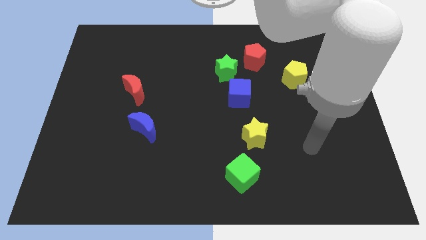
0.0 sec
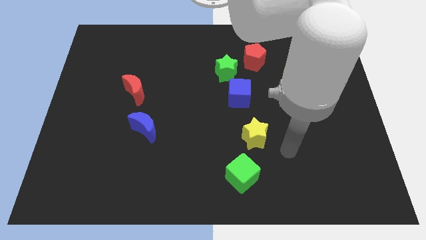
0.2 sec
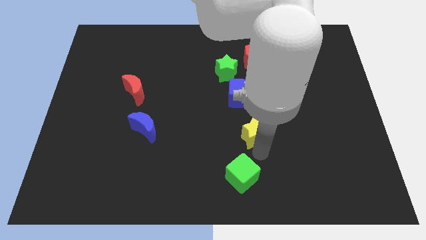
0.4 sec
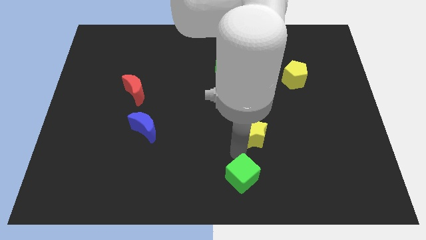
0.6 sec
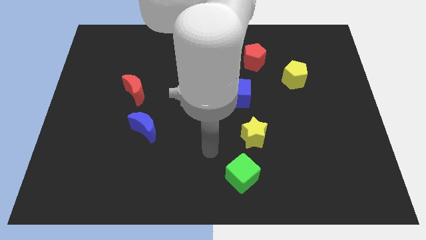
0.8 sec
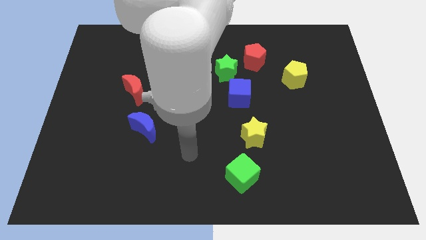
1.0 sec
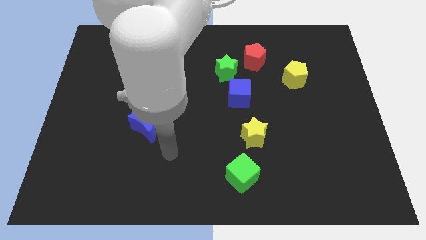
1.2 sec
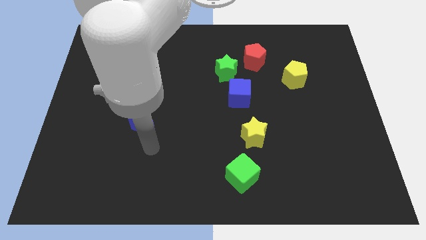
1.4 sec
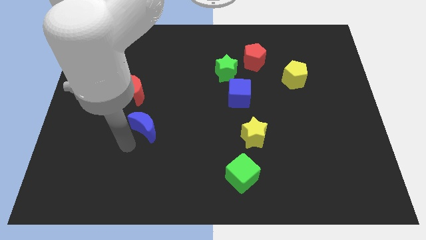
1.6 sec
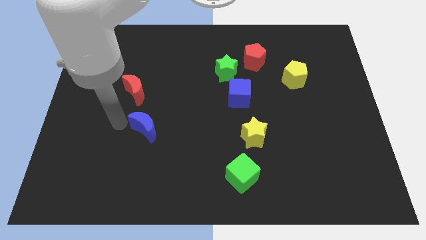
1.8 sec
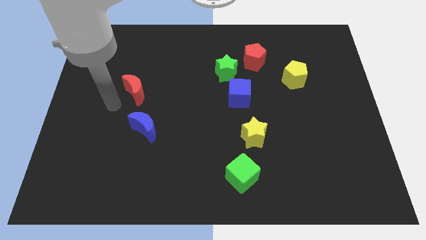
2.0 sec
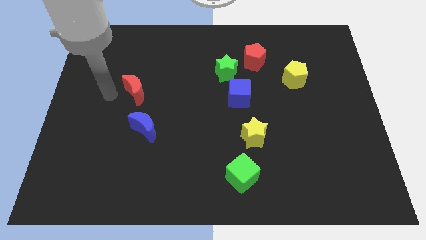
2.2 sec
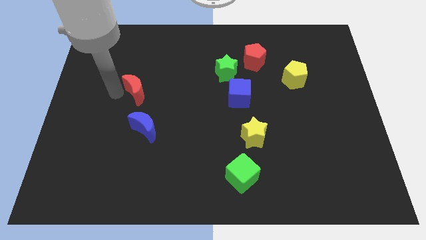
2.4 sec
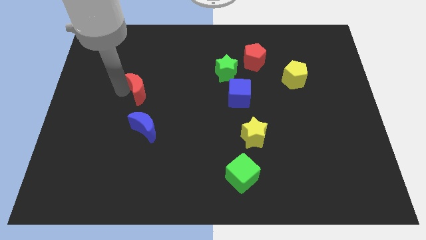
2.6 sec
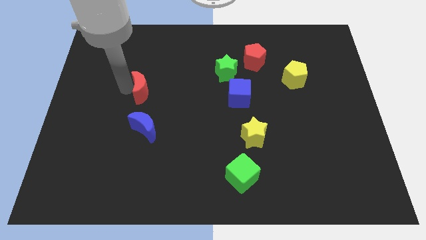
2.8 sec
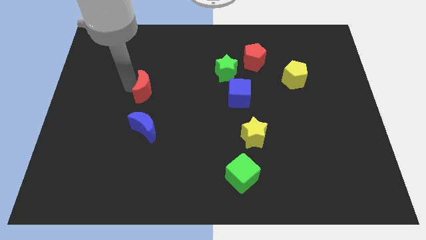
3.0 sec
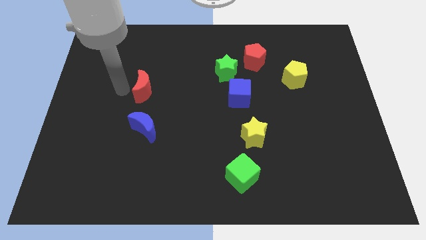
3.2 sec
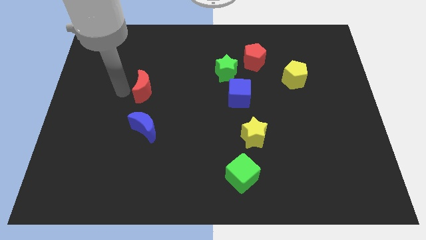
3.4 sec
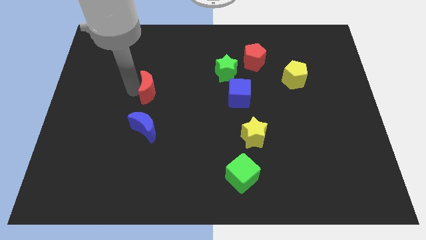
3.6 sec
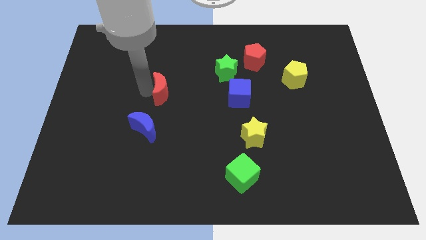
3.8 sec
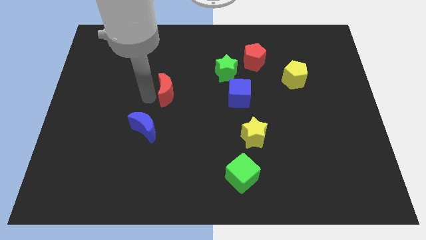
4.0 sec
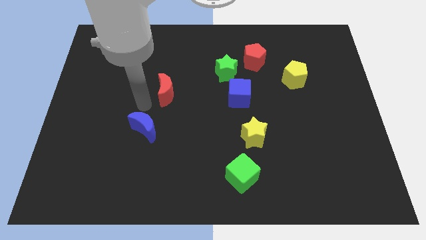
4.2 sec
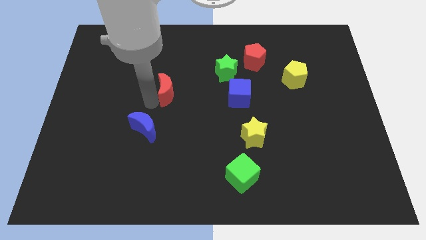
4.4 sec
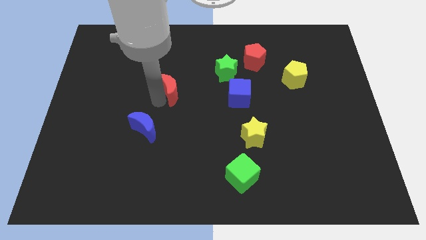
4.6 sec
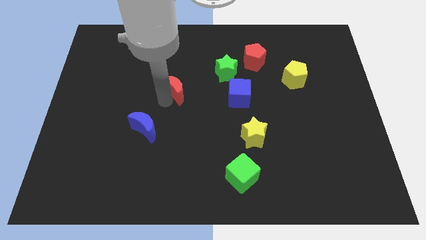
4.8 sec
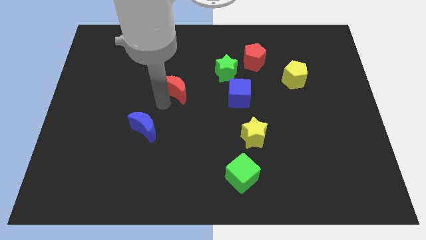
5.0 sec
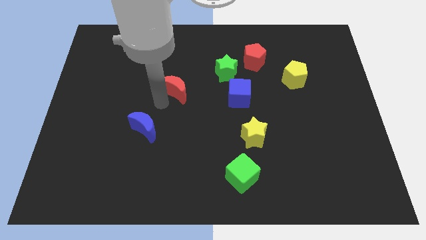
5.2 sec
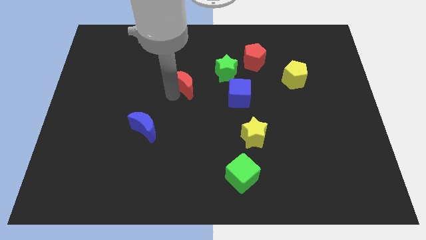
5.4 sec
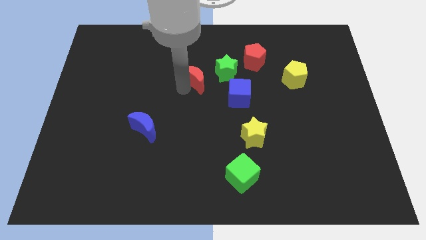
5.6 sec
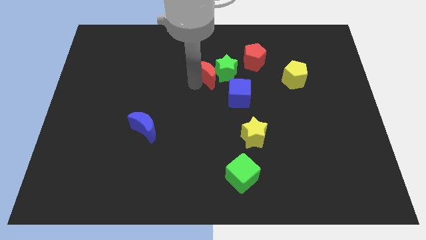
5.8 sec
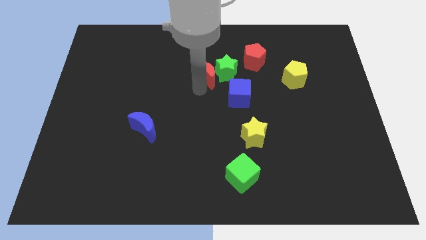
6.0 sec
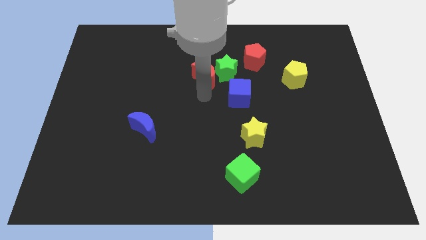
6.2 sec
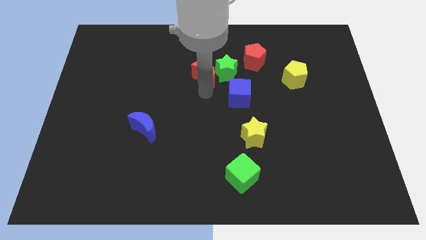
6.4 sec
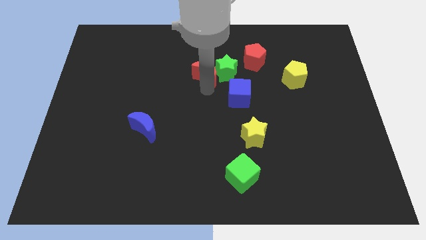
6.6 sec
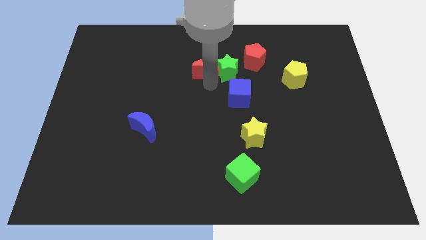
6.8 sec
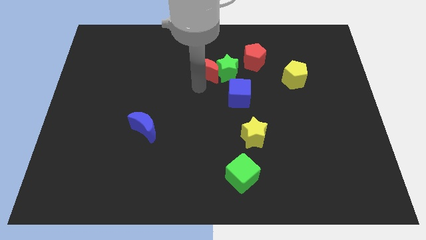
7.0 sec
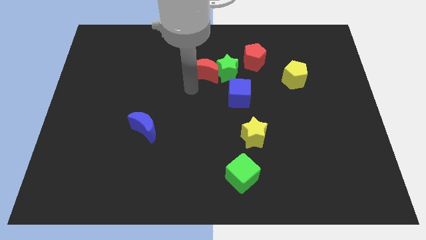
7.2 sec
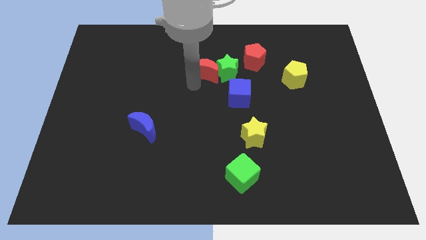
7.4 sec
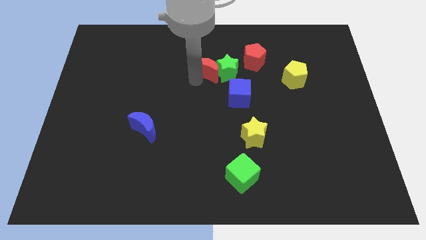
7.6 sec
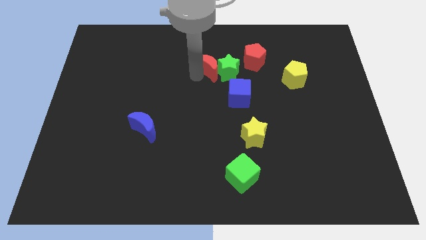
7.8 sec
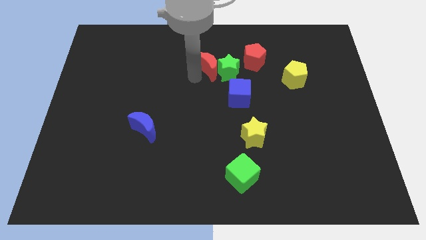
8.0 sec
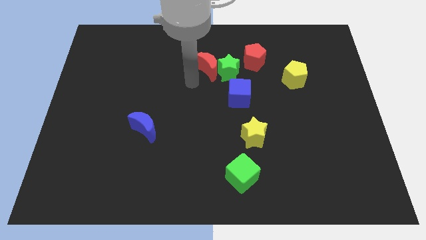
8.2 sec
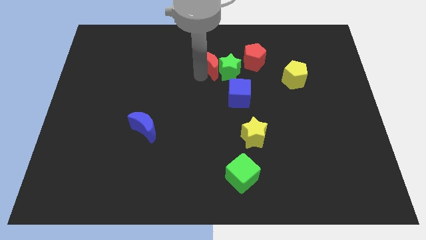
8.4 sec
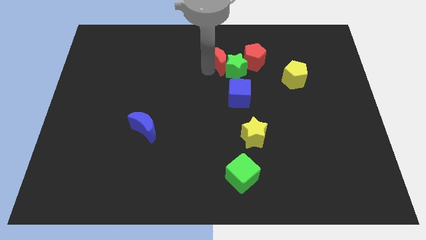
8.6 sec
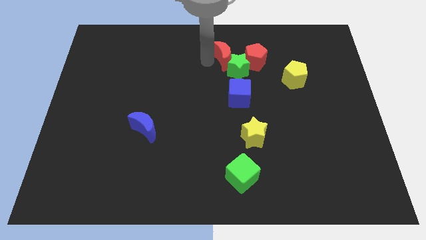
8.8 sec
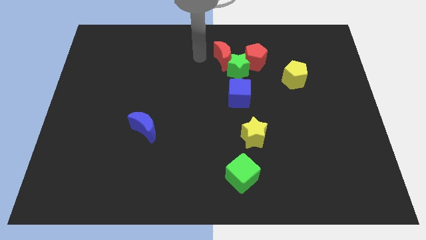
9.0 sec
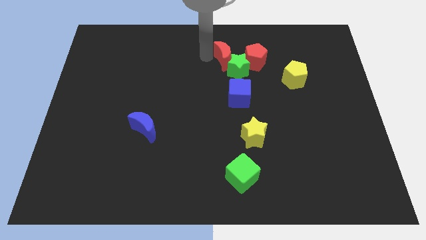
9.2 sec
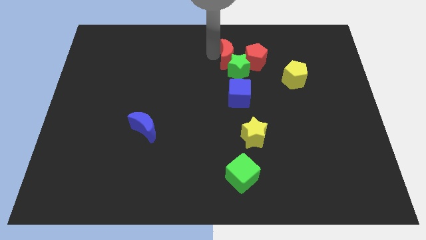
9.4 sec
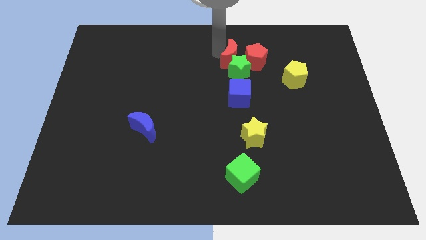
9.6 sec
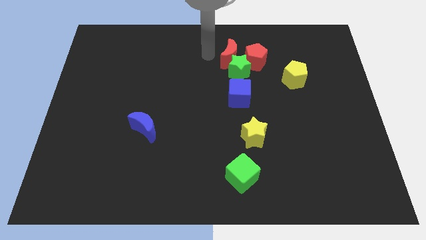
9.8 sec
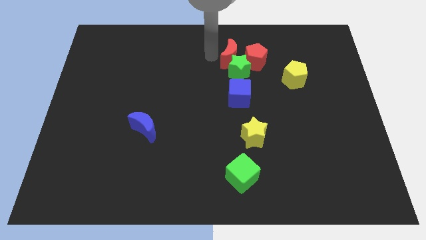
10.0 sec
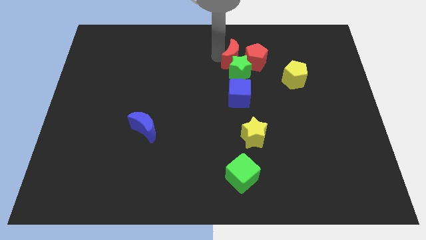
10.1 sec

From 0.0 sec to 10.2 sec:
move the red moon towards the red pentagon

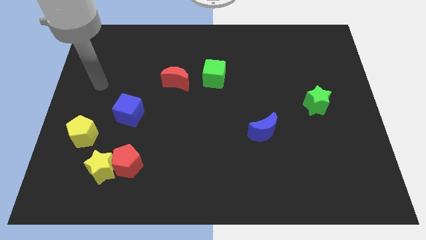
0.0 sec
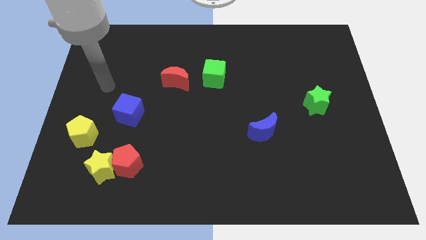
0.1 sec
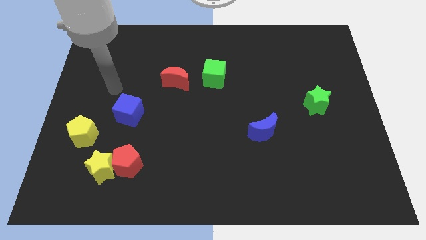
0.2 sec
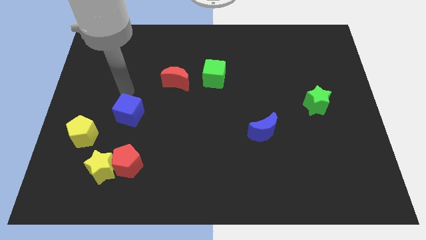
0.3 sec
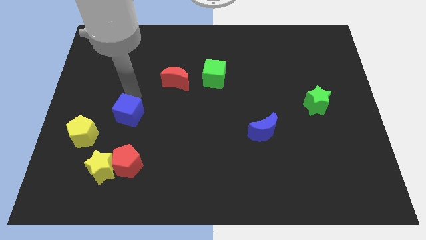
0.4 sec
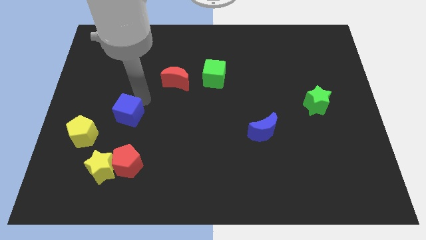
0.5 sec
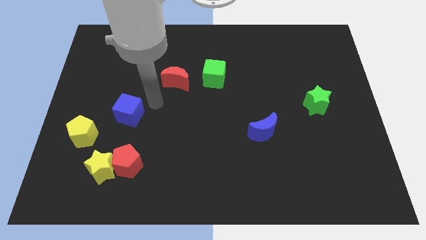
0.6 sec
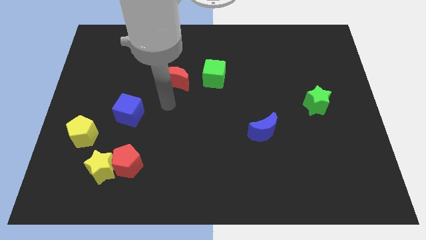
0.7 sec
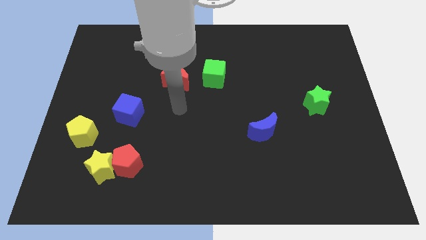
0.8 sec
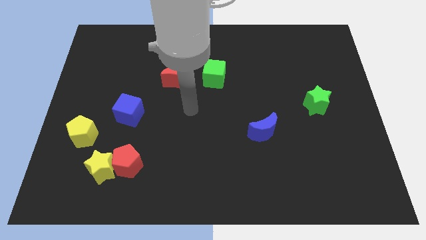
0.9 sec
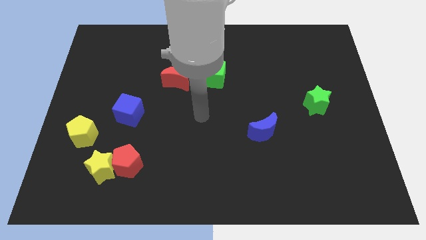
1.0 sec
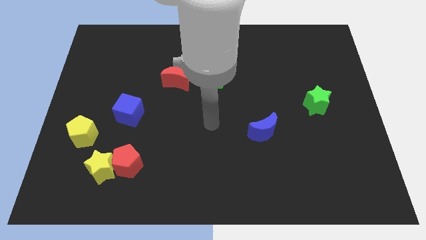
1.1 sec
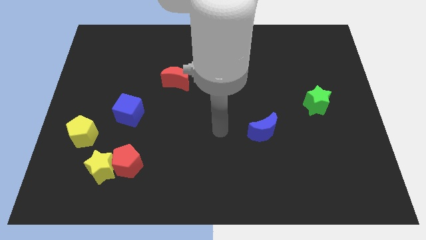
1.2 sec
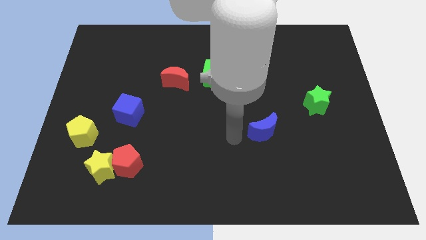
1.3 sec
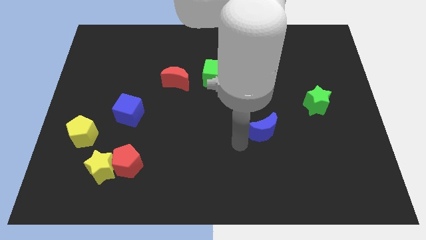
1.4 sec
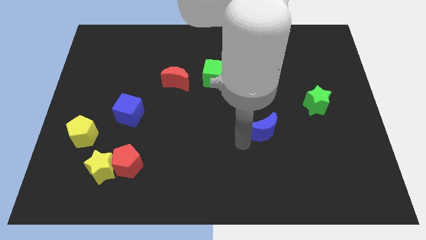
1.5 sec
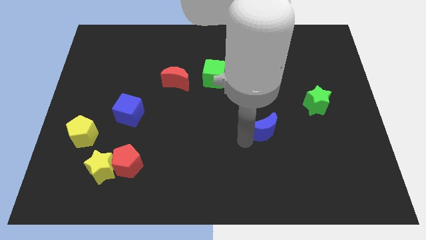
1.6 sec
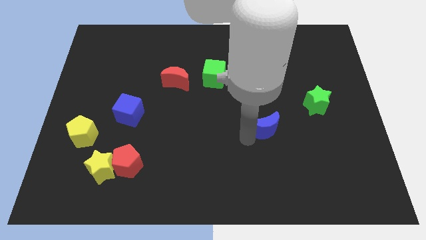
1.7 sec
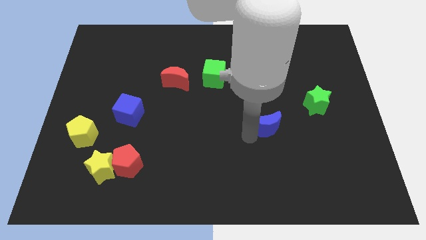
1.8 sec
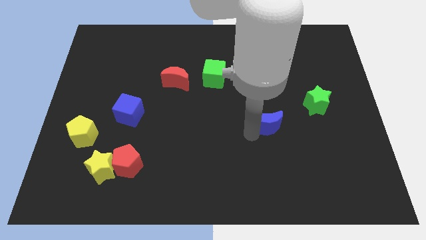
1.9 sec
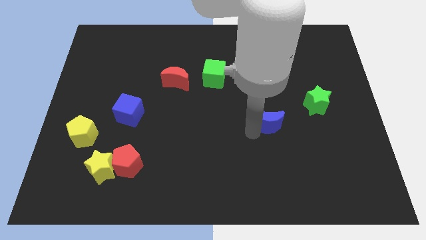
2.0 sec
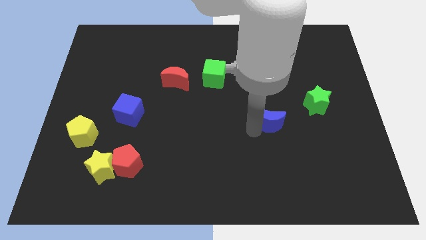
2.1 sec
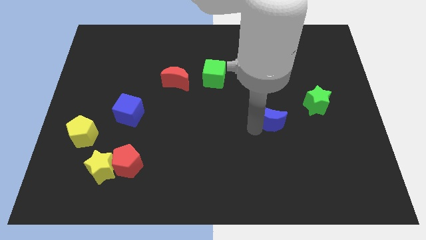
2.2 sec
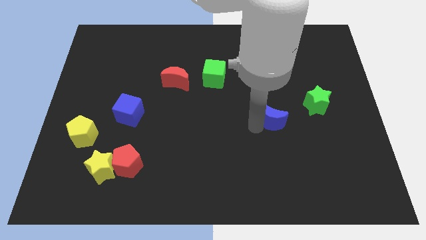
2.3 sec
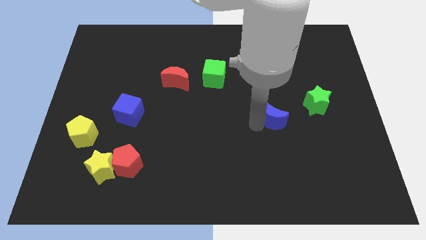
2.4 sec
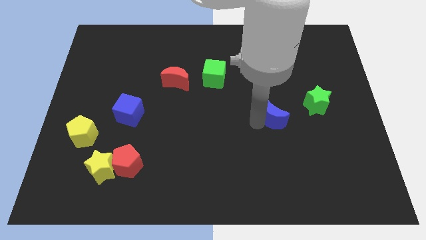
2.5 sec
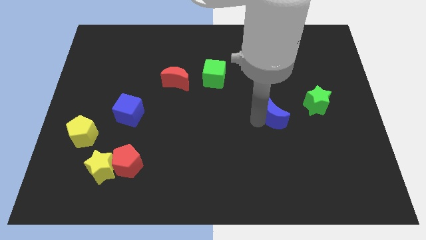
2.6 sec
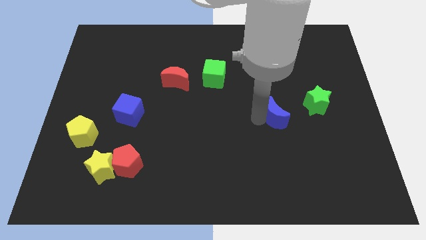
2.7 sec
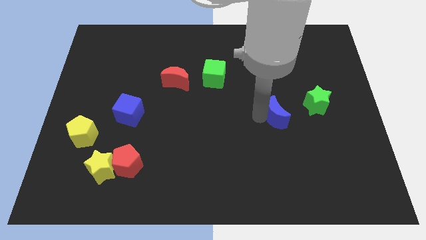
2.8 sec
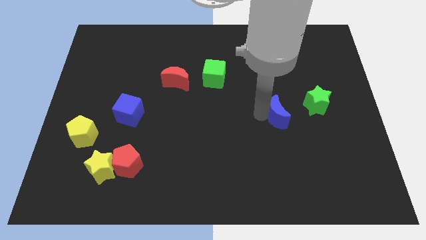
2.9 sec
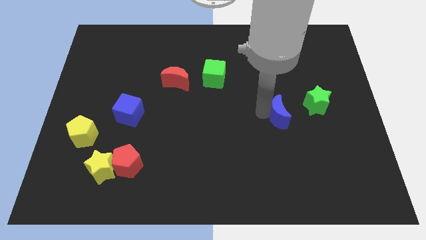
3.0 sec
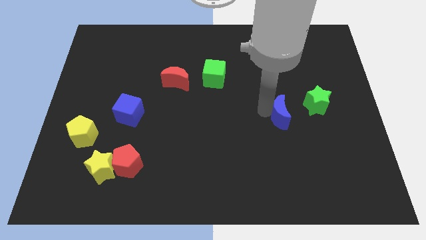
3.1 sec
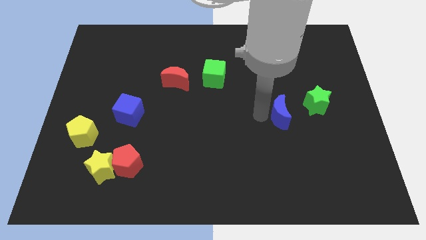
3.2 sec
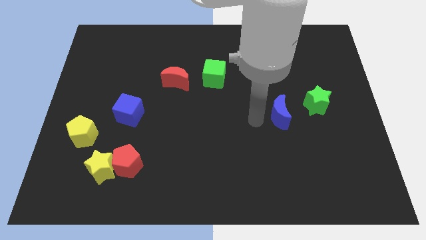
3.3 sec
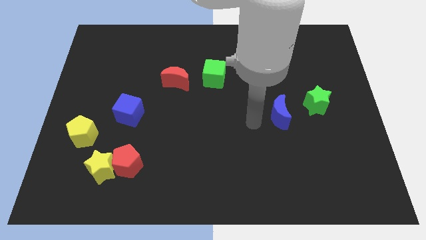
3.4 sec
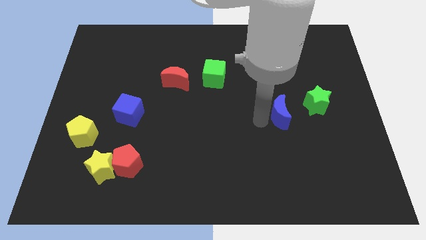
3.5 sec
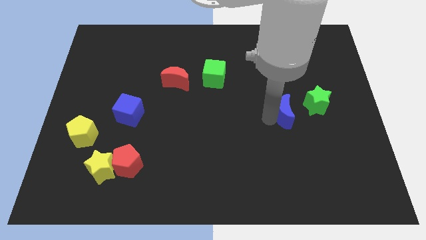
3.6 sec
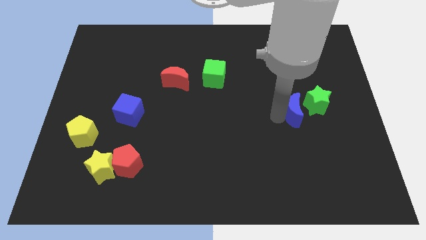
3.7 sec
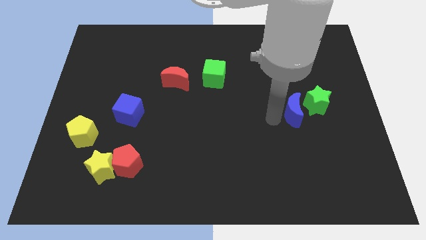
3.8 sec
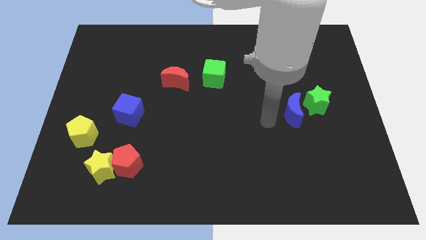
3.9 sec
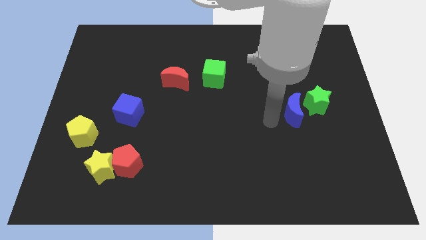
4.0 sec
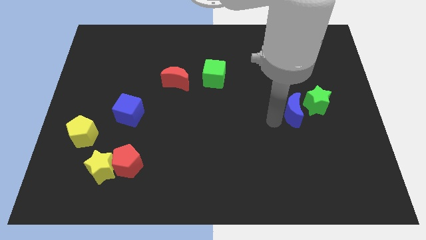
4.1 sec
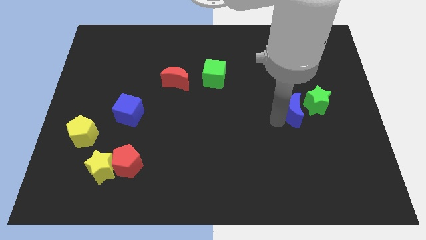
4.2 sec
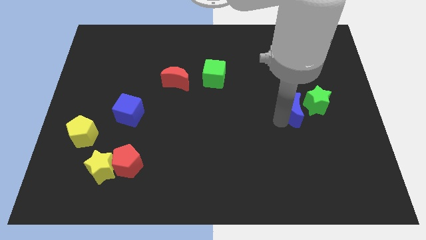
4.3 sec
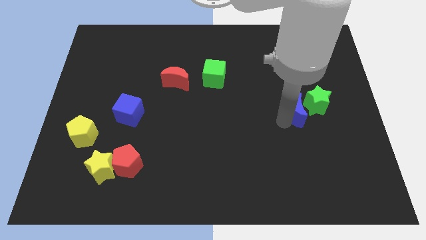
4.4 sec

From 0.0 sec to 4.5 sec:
push the blue moon towards the green star
